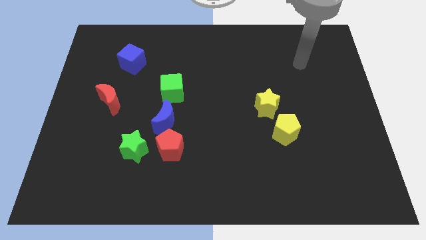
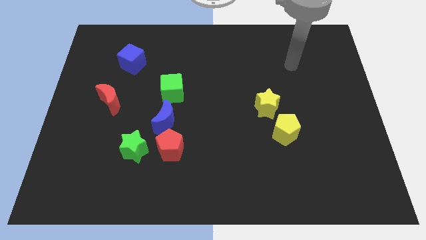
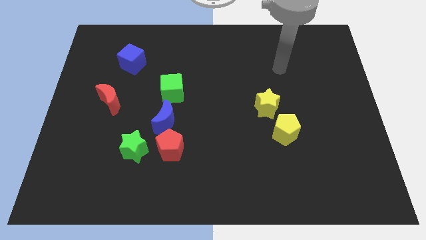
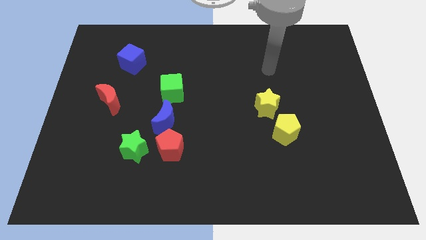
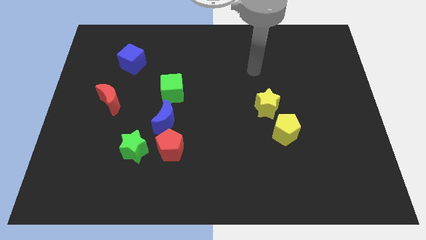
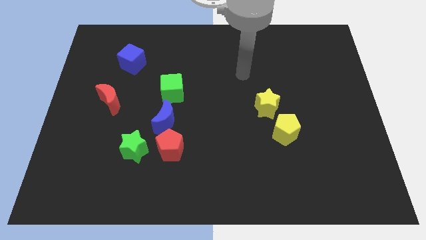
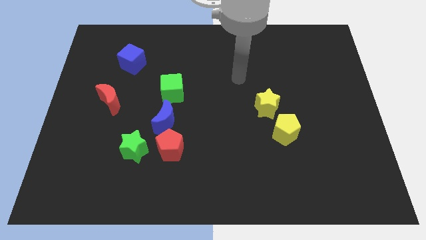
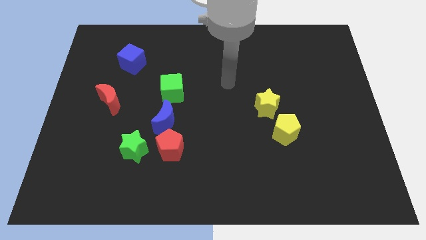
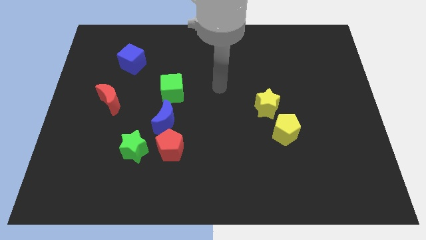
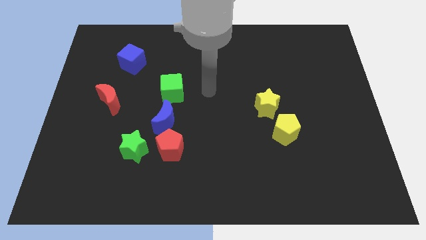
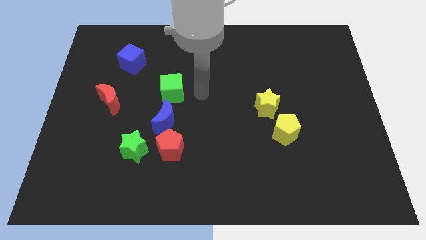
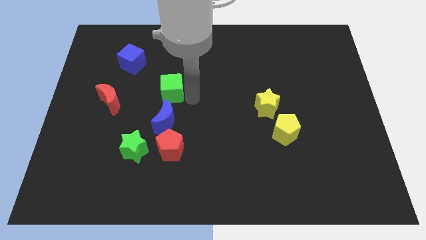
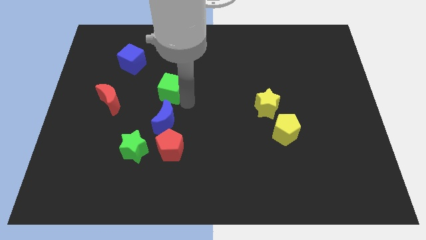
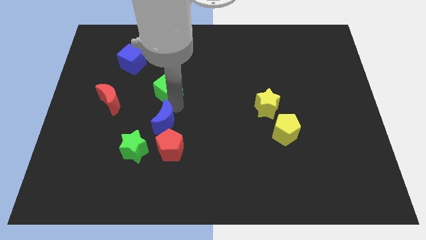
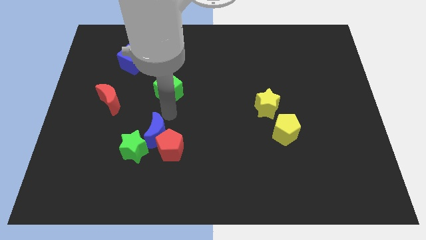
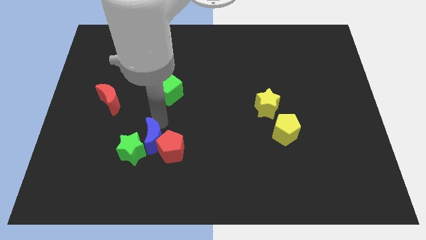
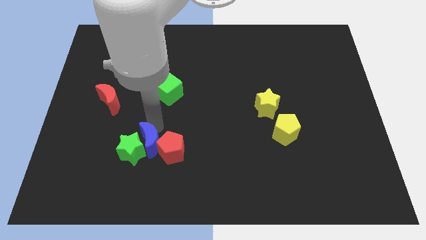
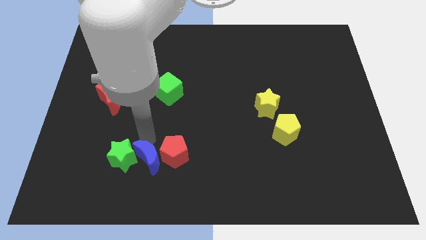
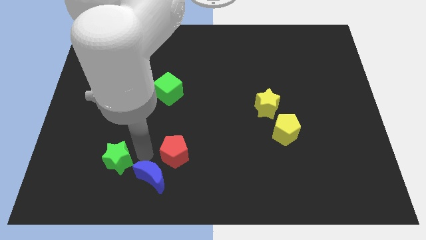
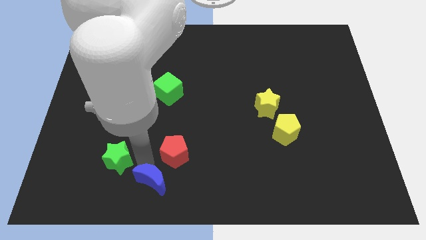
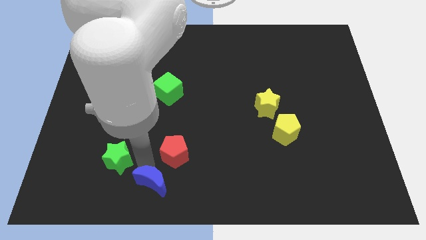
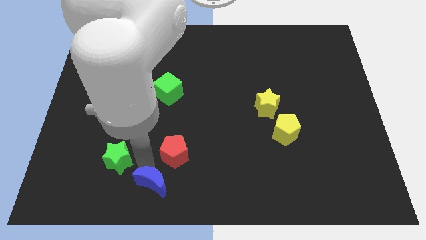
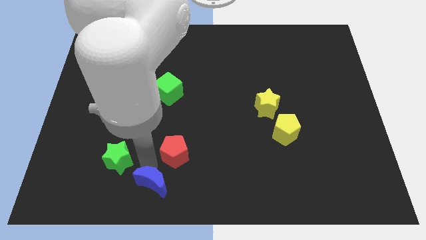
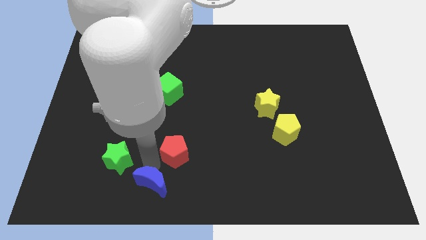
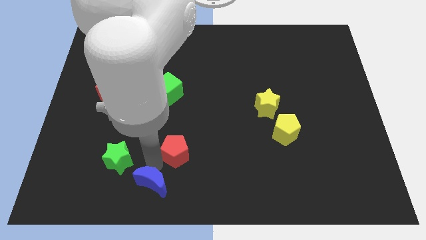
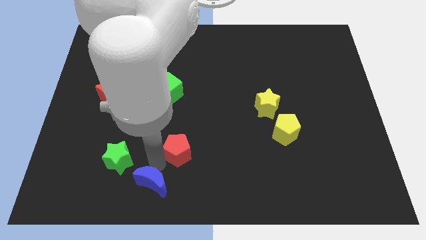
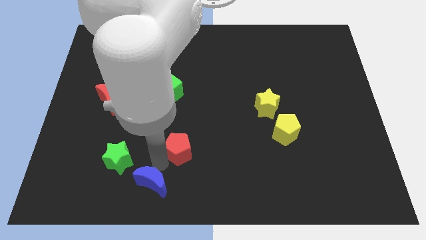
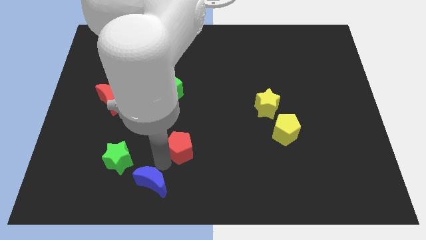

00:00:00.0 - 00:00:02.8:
pull the red pentagon apart from the blue moon and green star

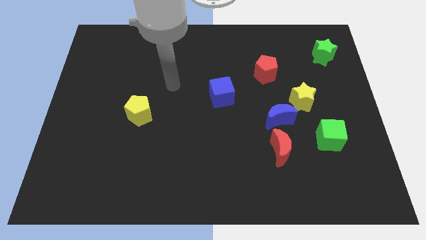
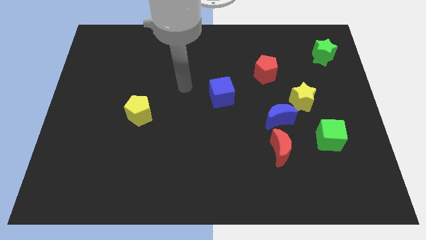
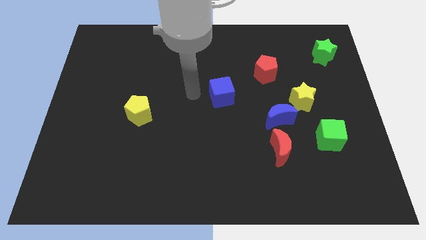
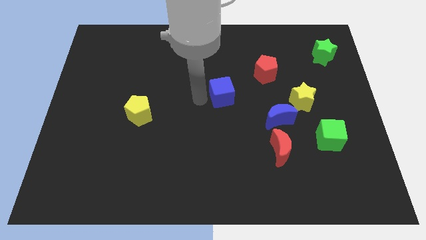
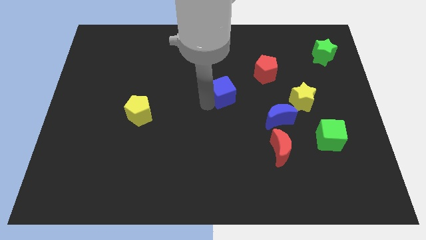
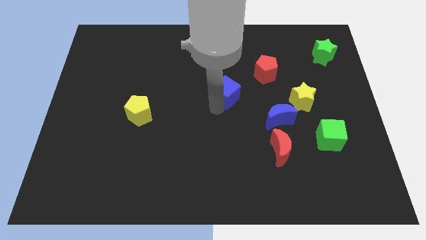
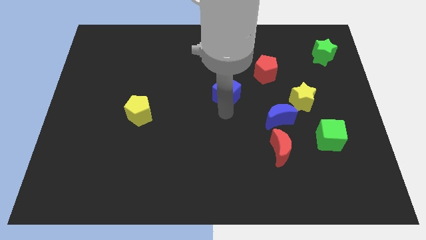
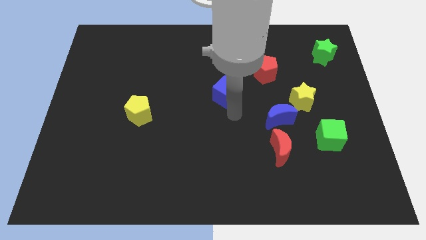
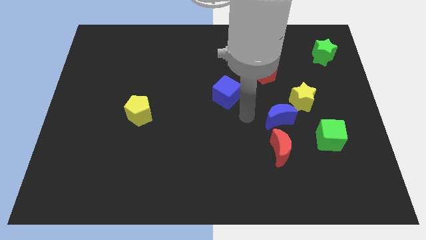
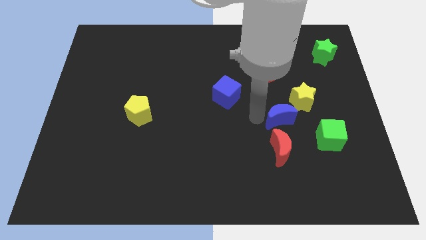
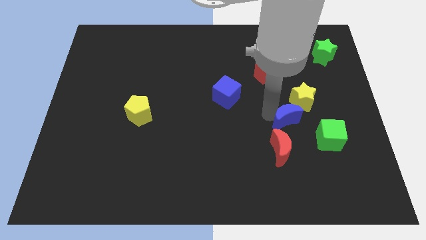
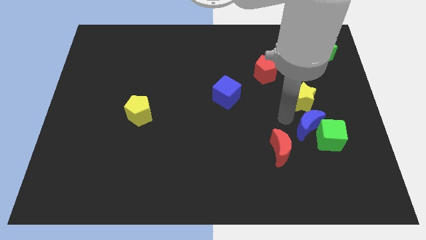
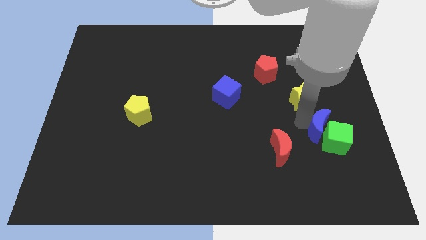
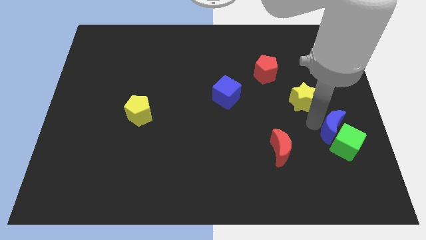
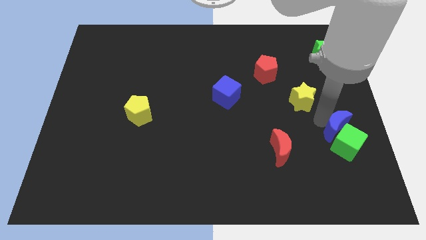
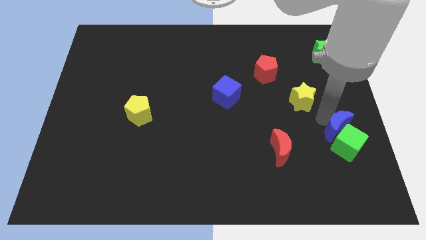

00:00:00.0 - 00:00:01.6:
pull the yellow star apart from the blue moon

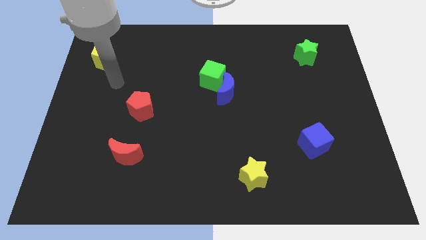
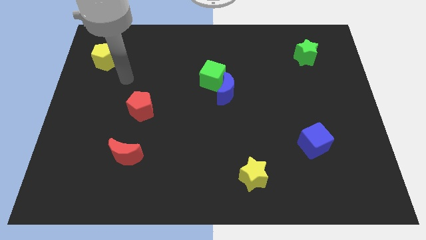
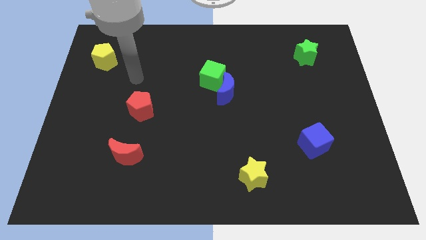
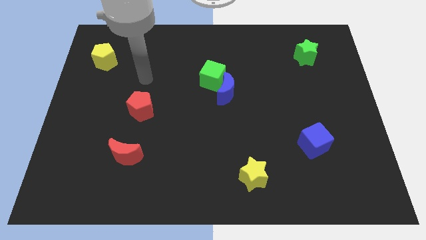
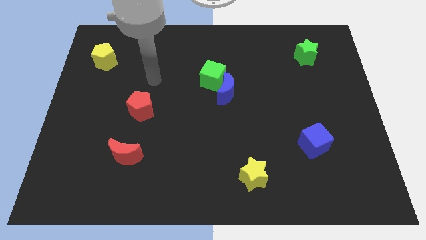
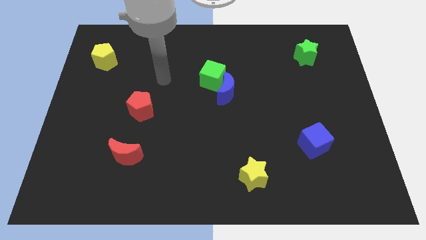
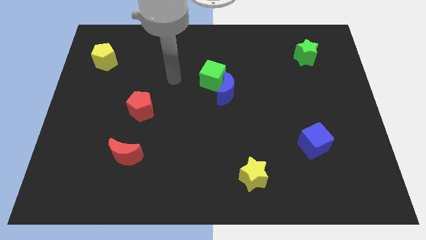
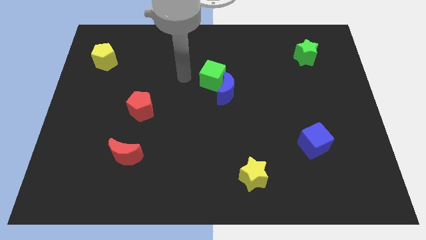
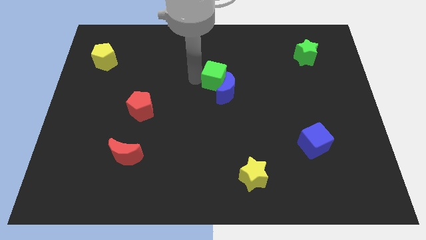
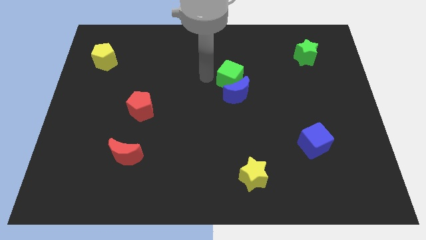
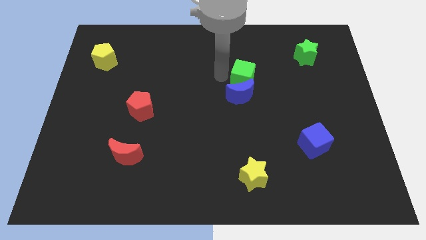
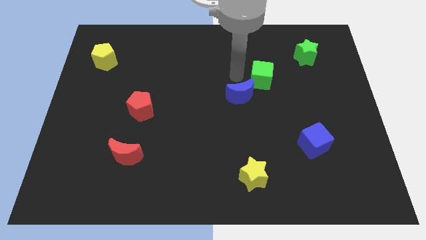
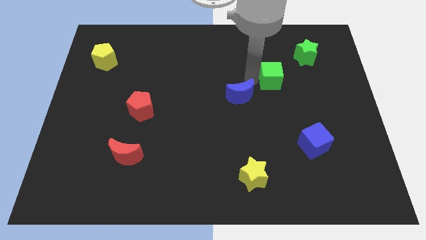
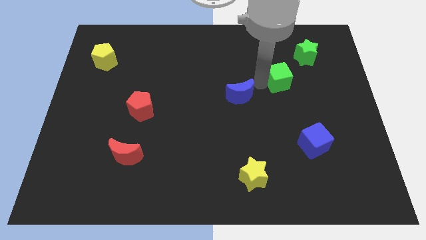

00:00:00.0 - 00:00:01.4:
pull the blue moon apart from the green cube

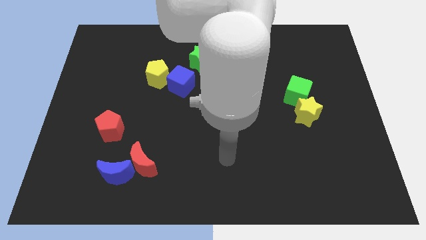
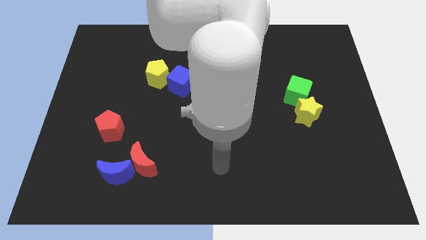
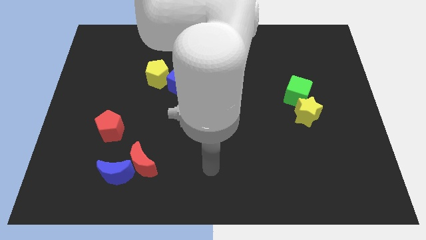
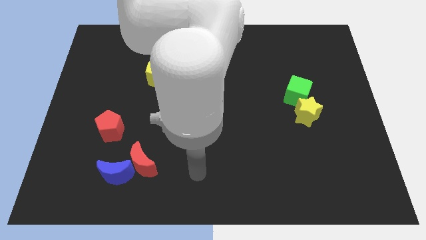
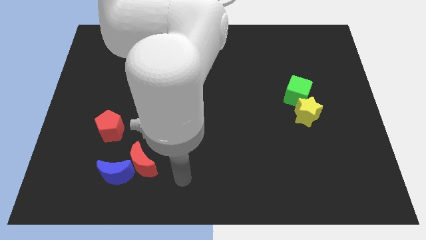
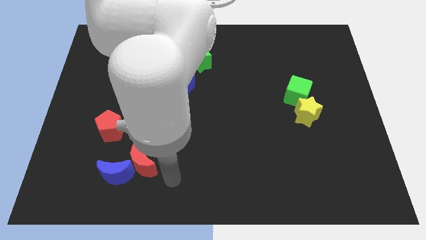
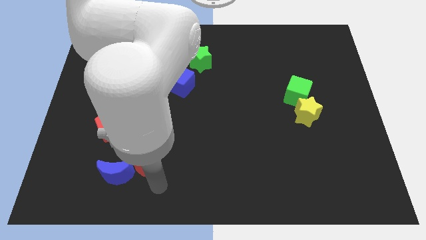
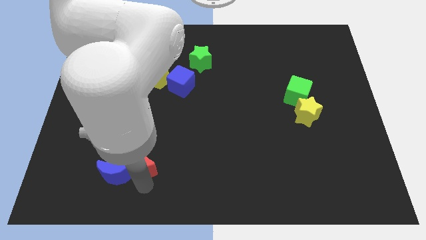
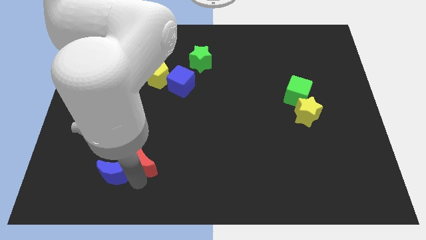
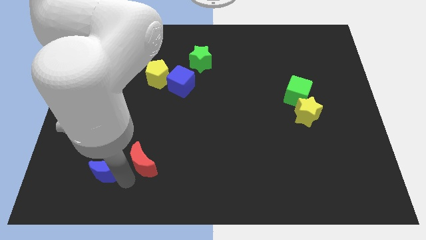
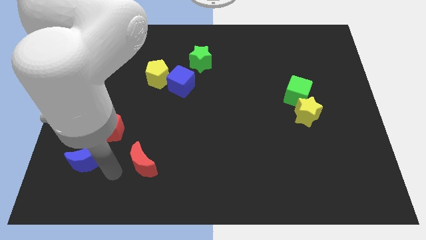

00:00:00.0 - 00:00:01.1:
move the red moon away from the blue moon

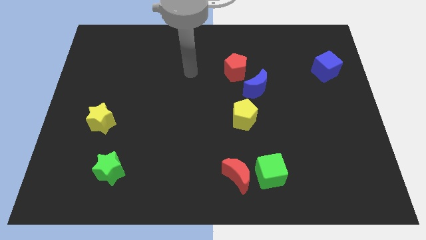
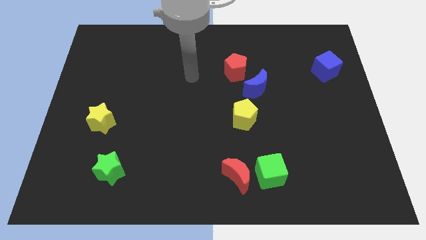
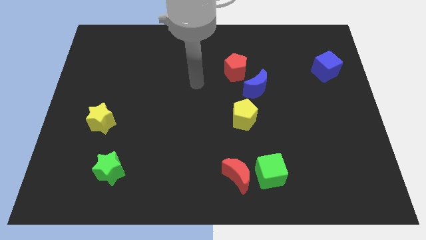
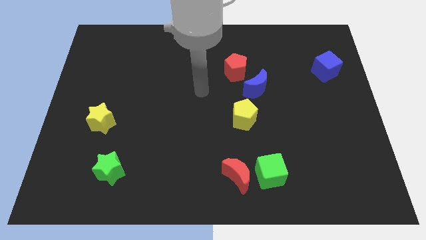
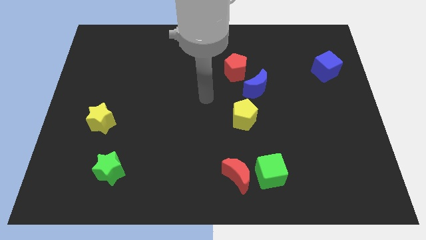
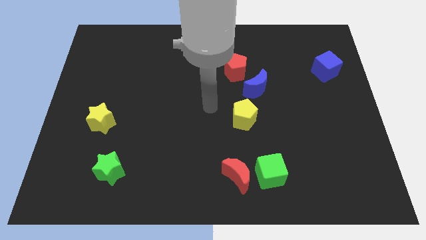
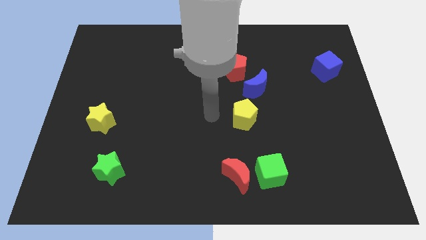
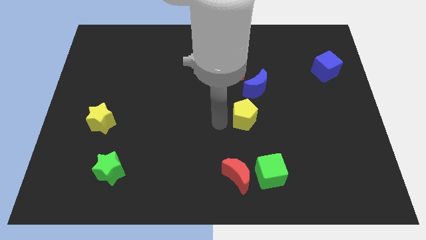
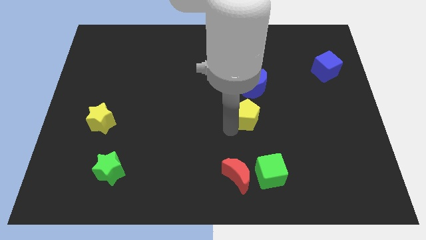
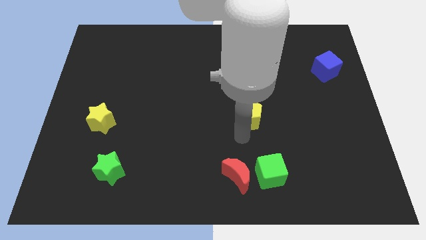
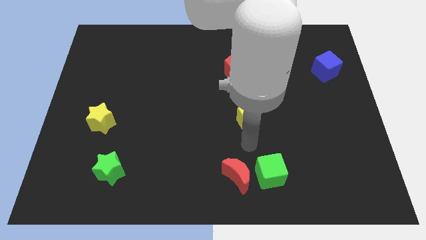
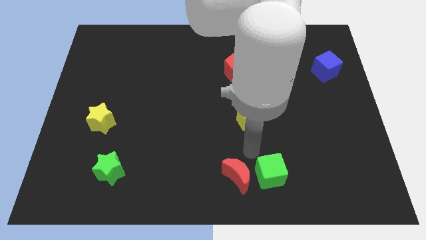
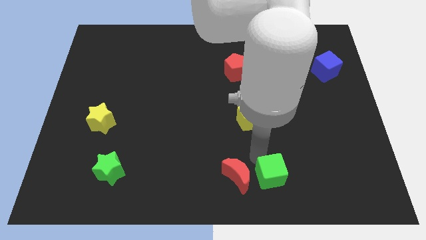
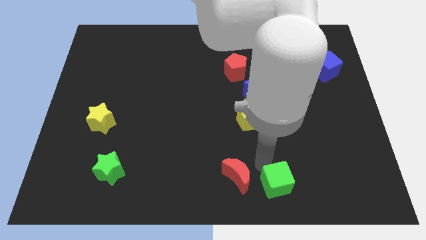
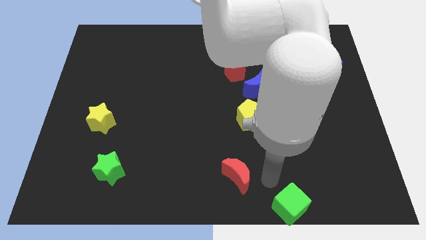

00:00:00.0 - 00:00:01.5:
move the red moon away from the green cube

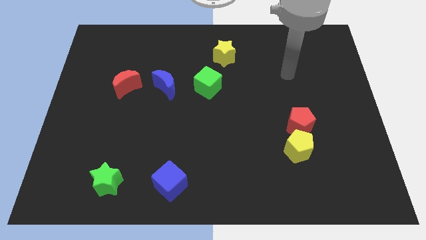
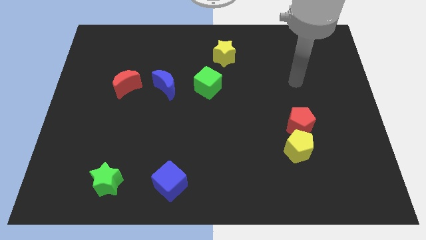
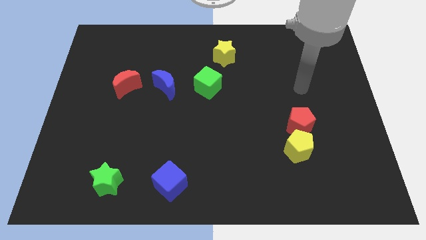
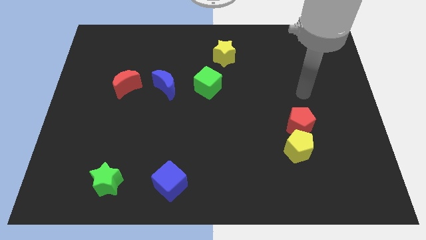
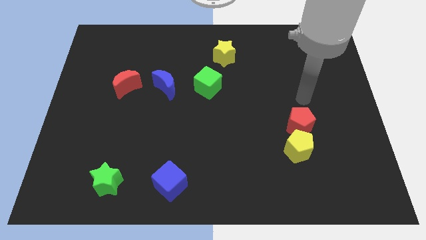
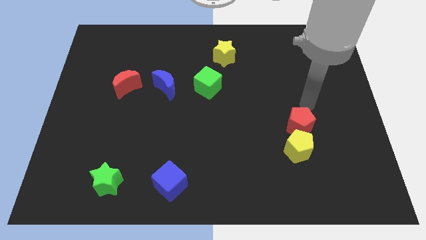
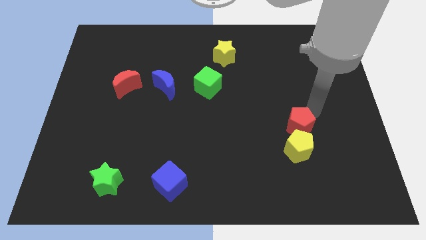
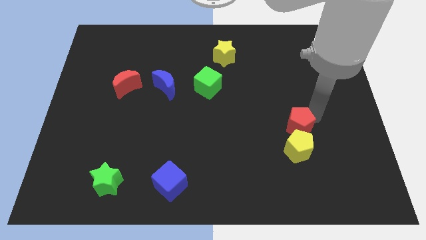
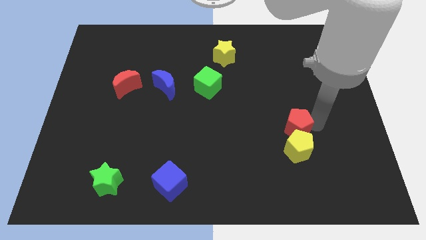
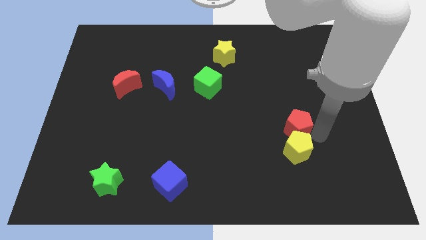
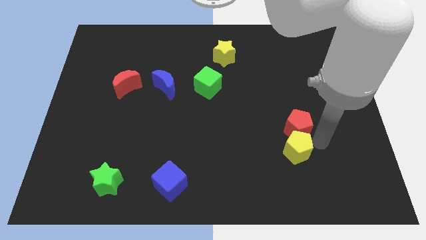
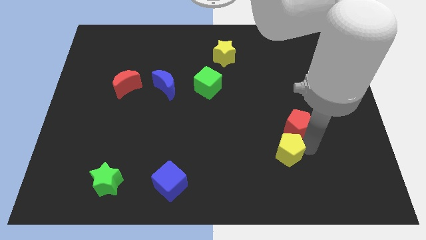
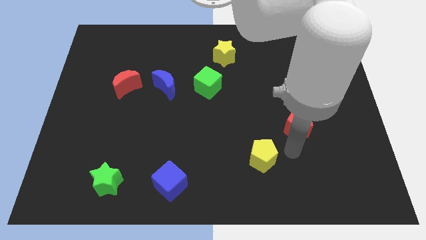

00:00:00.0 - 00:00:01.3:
move the red pentagon away from the yellow pentagon
